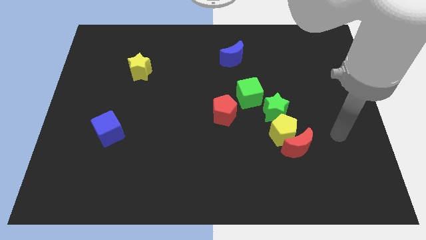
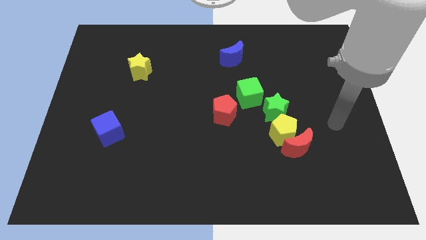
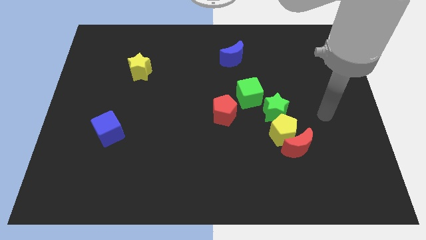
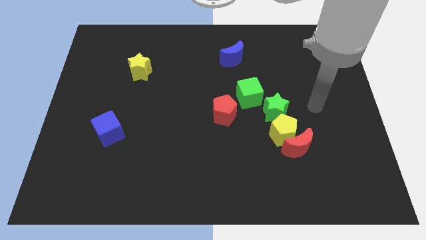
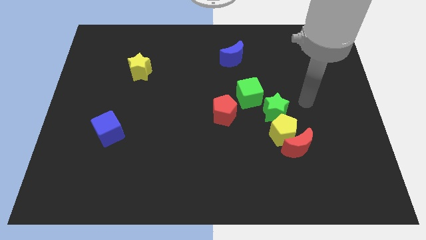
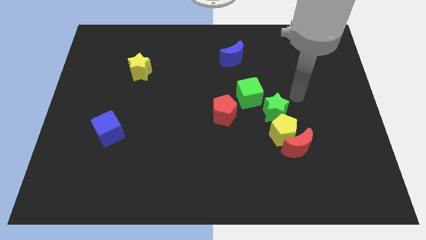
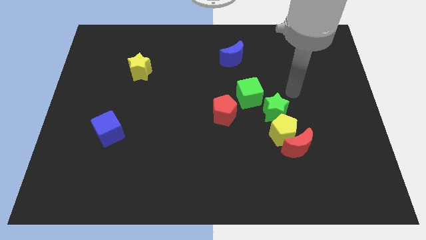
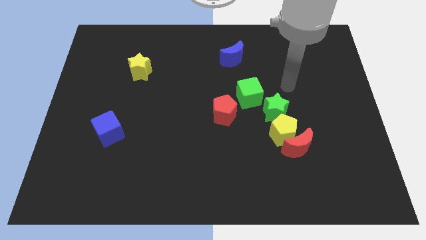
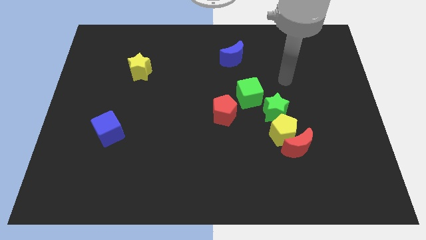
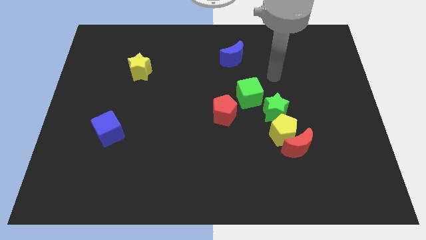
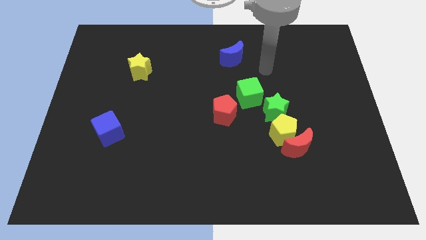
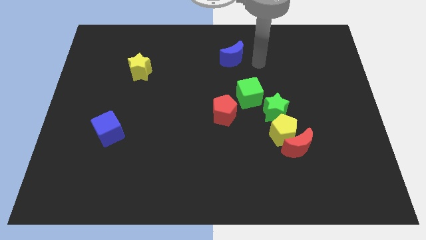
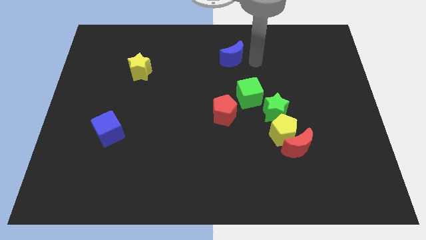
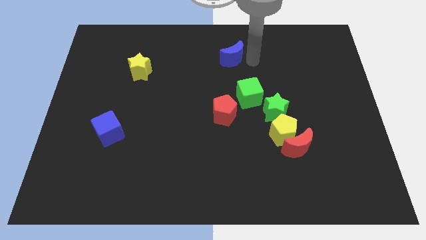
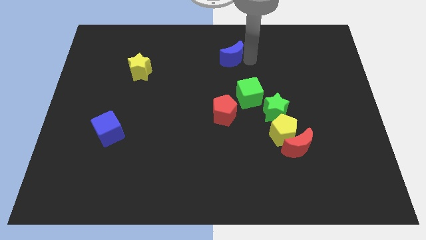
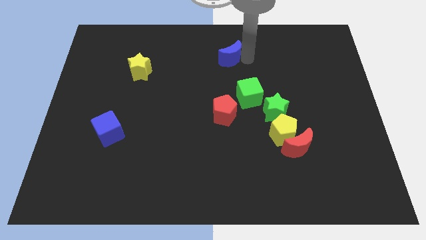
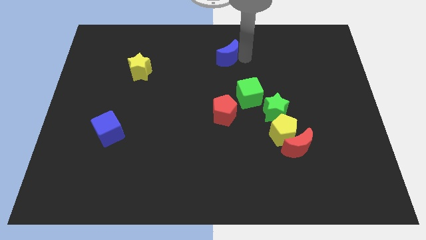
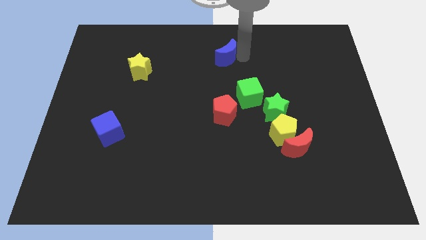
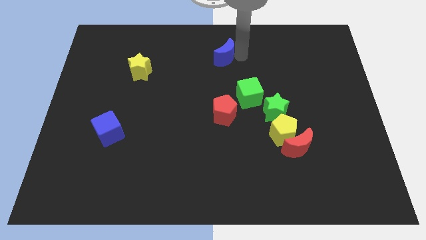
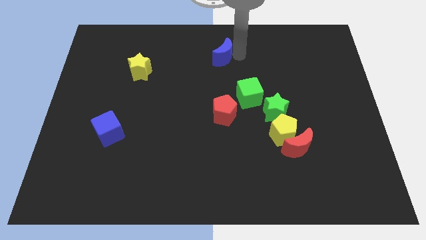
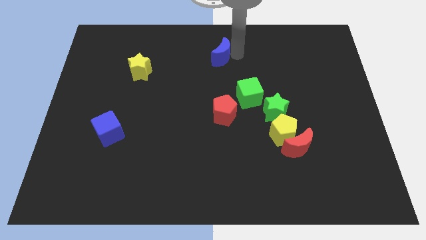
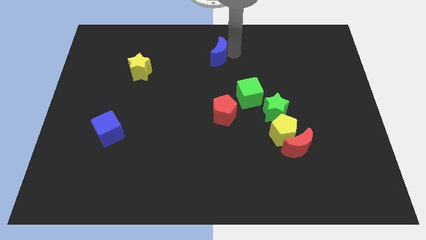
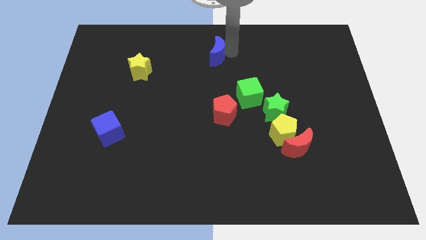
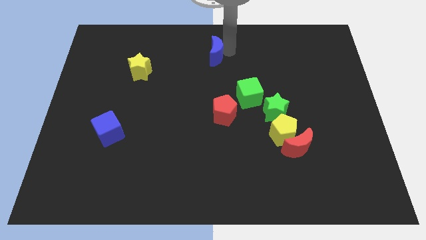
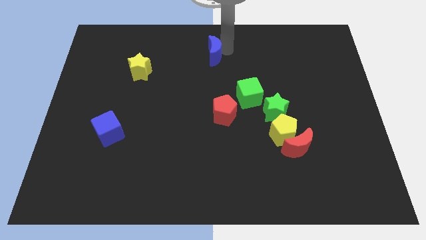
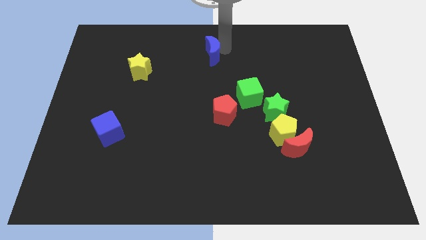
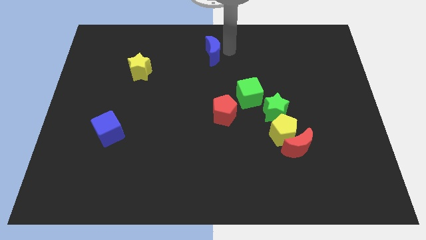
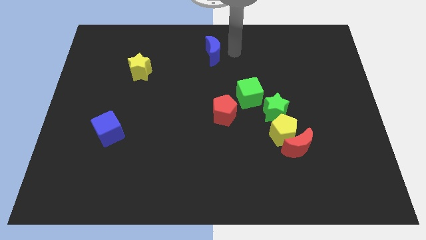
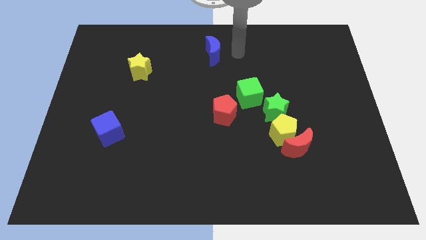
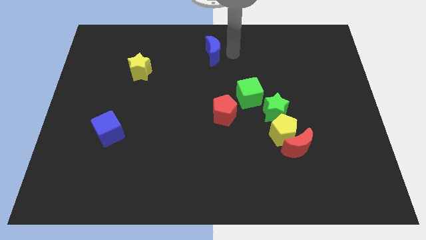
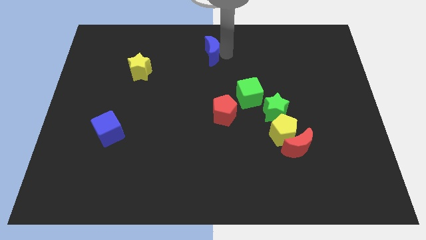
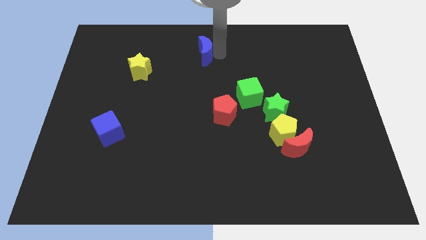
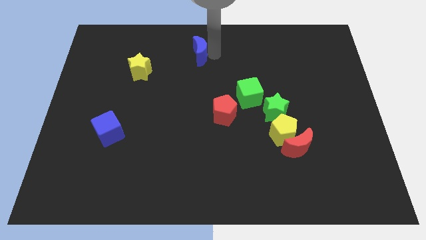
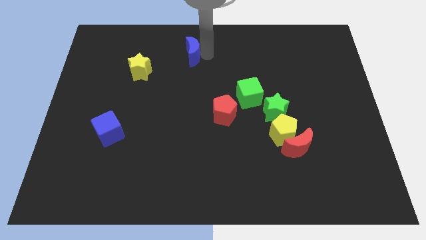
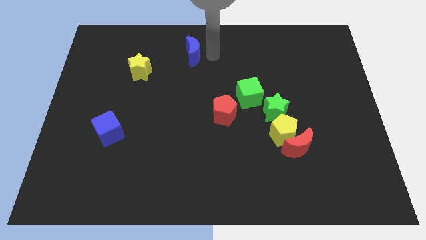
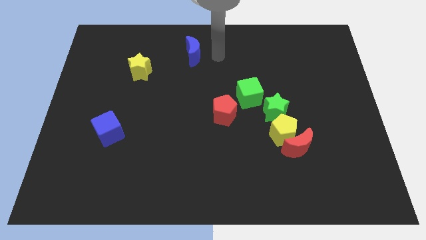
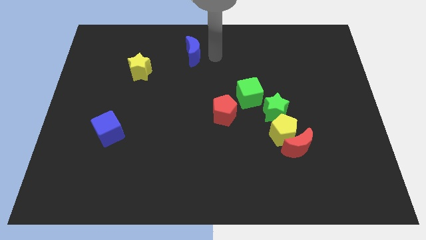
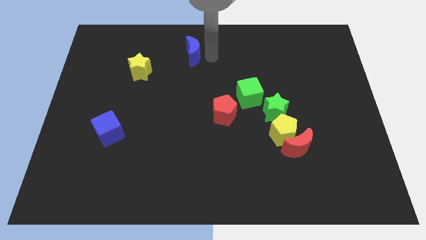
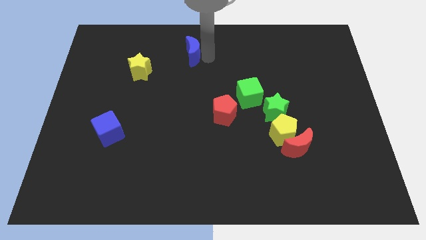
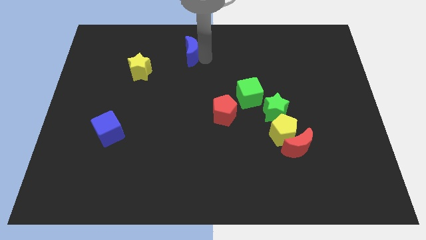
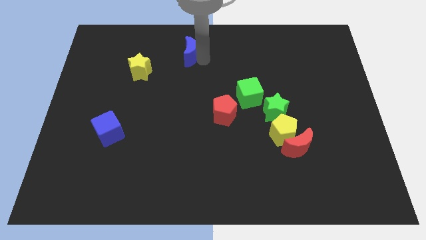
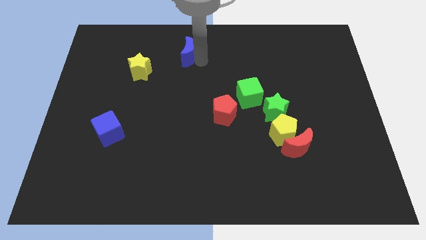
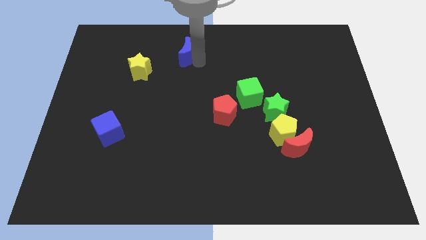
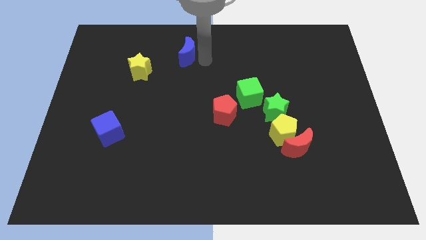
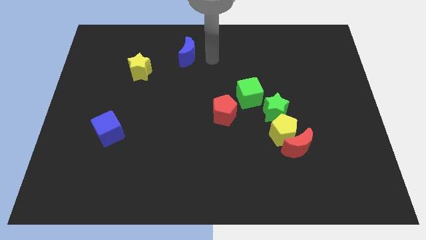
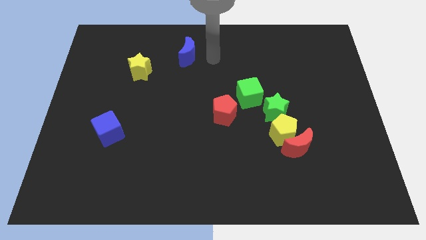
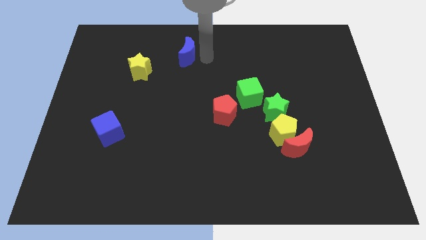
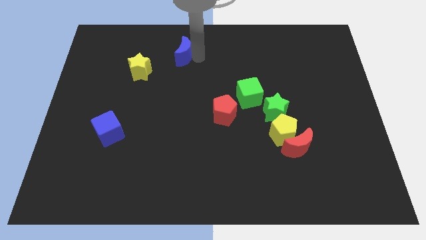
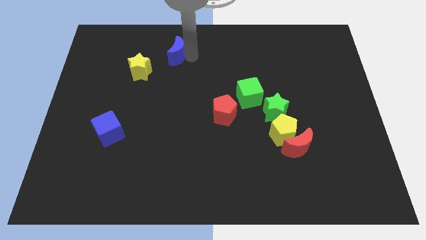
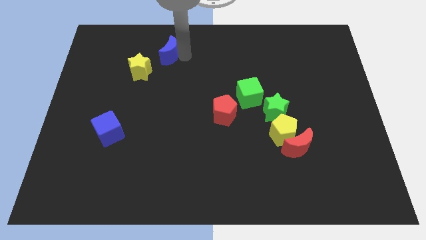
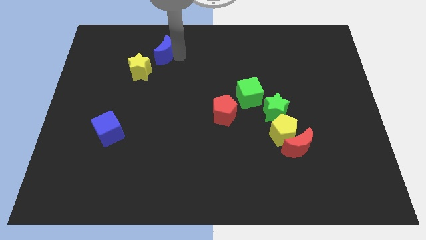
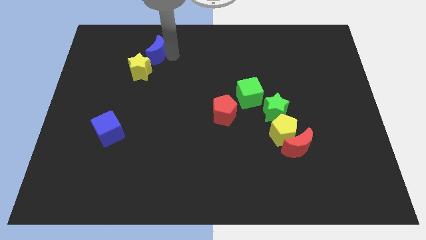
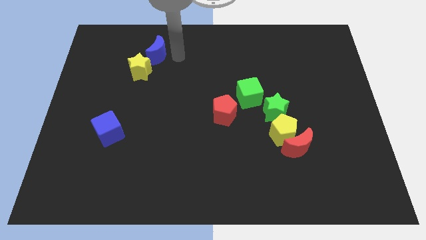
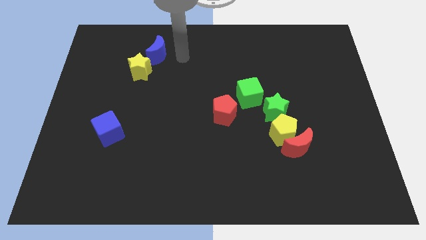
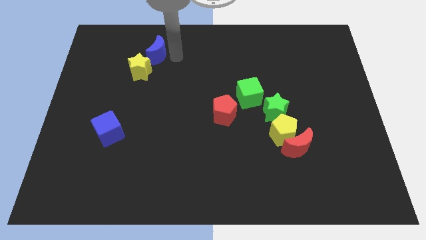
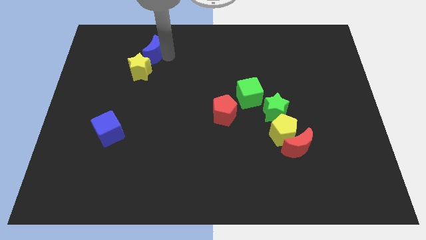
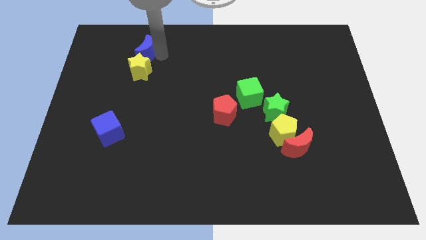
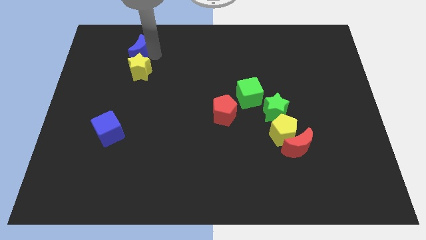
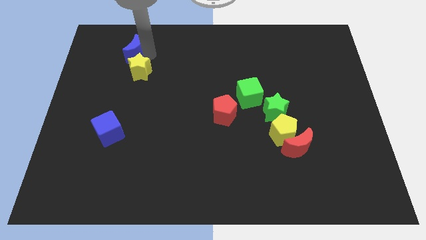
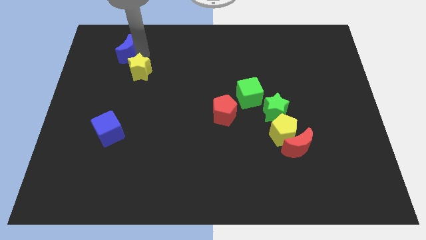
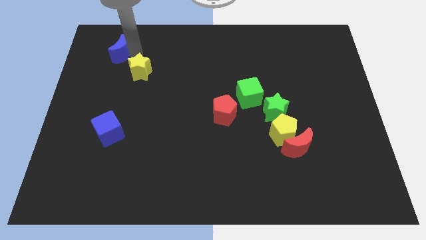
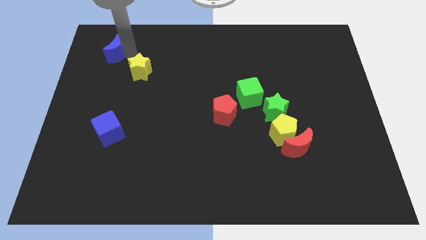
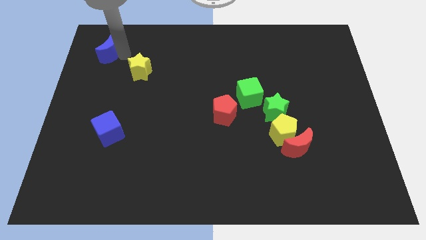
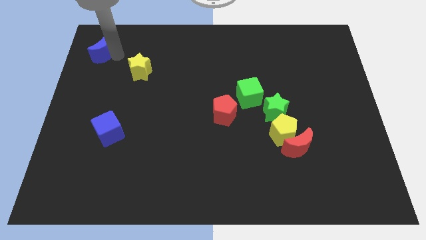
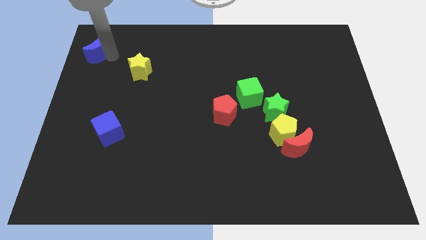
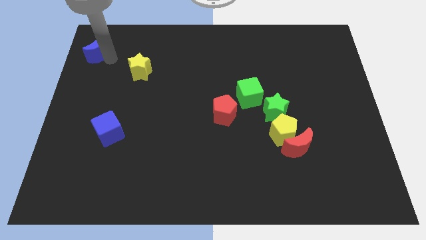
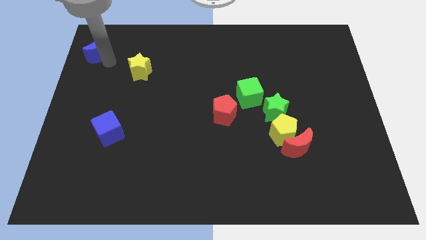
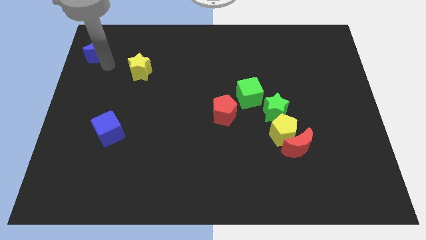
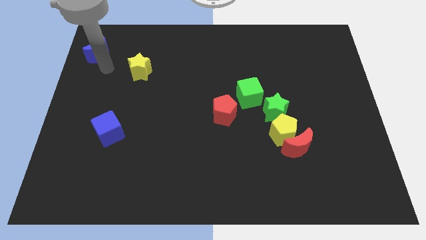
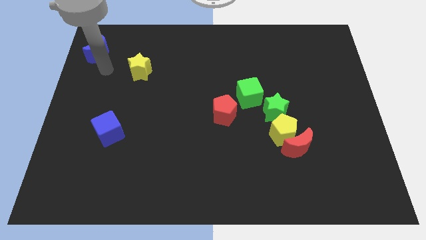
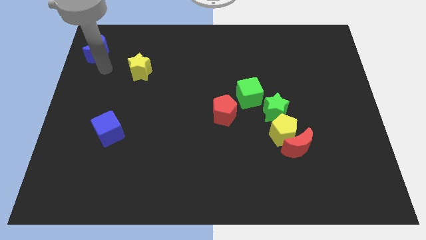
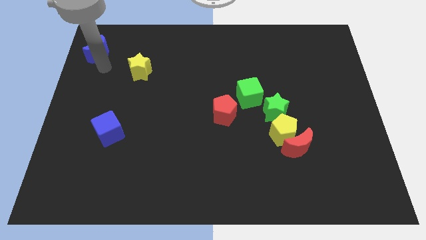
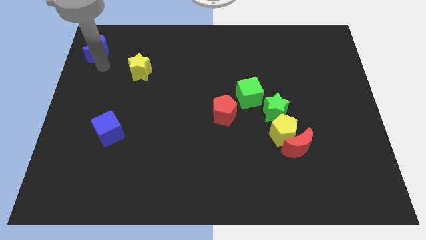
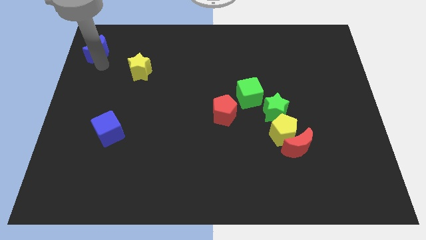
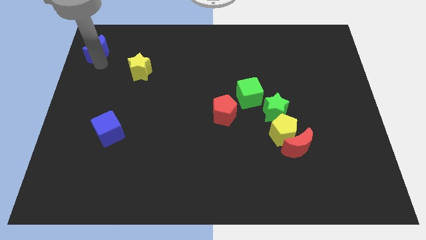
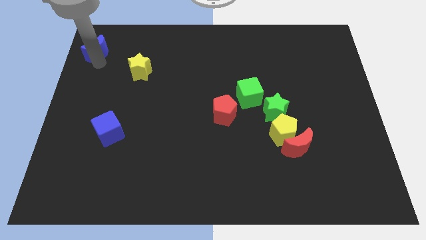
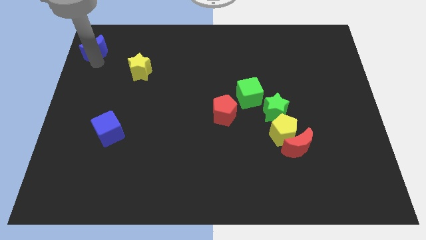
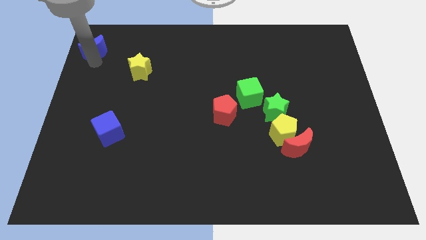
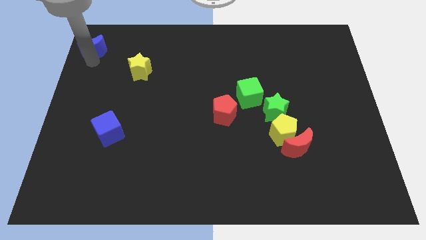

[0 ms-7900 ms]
put the blue moon to the top left
